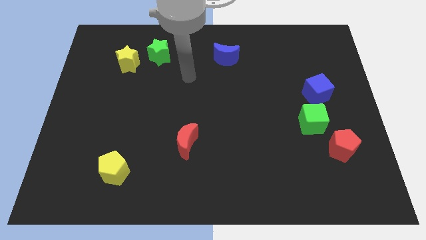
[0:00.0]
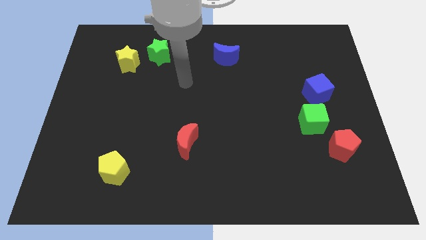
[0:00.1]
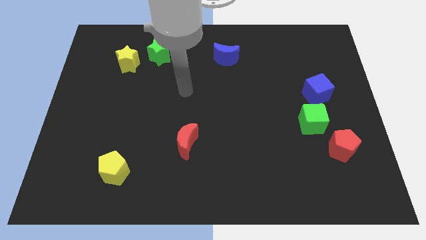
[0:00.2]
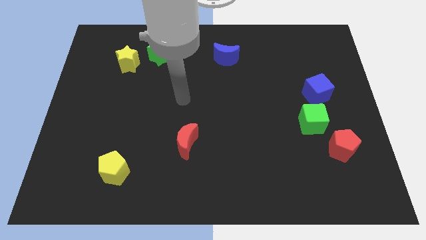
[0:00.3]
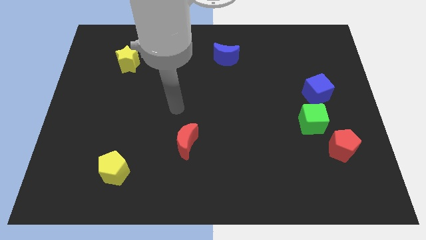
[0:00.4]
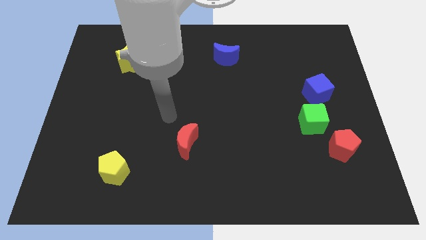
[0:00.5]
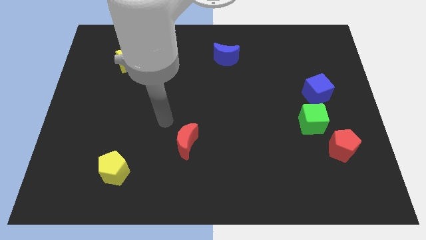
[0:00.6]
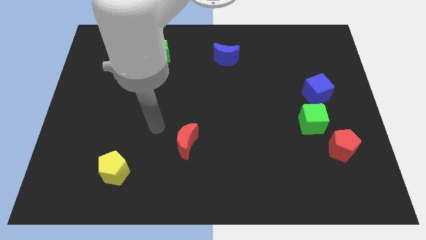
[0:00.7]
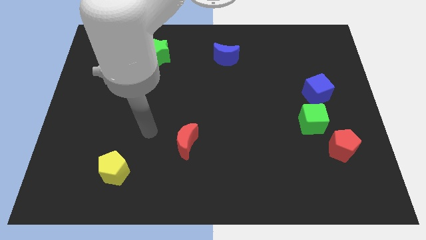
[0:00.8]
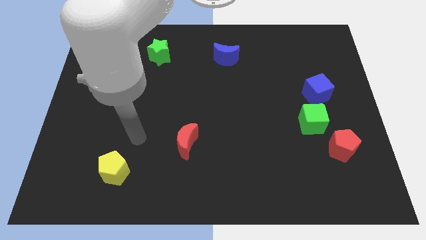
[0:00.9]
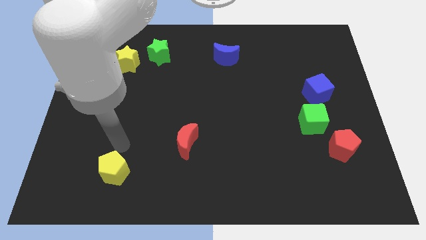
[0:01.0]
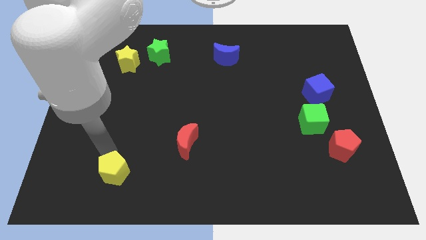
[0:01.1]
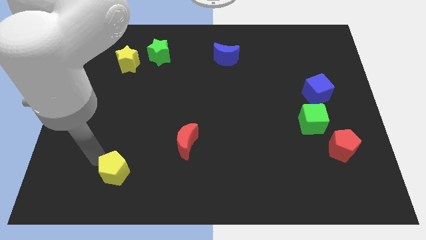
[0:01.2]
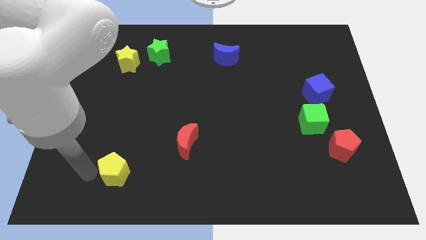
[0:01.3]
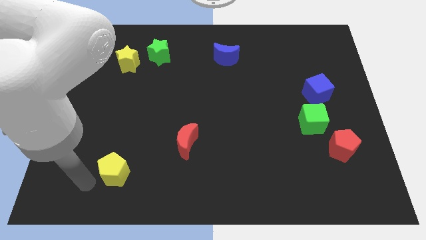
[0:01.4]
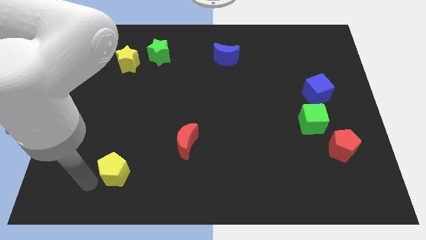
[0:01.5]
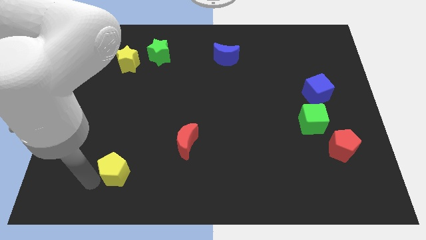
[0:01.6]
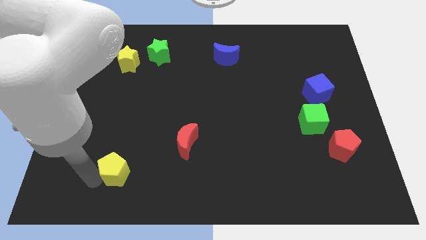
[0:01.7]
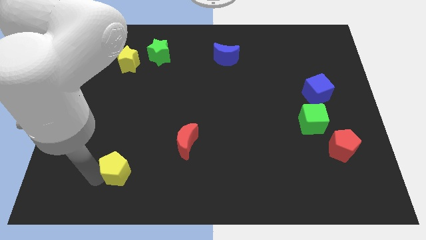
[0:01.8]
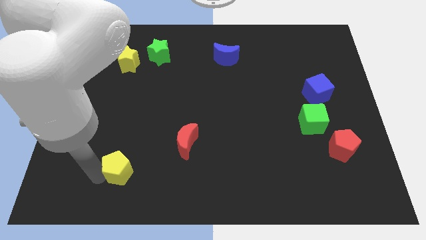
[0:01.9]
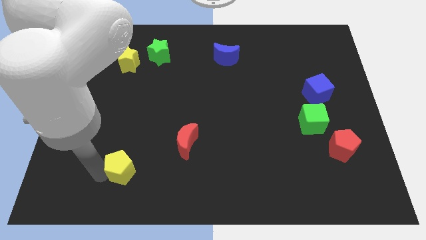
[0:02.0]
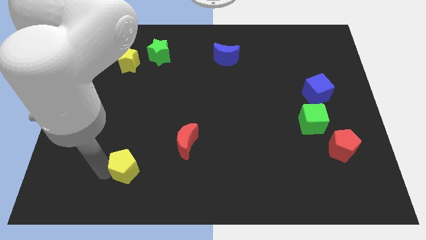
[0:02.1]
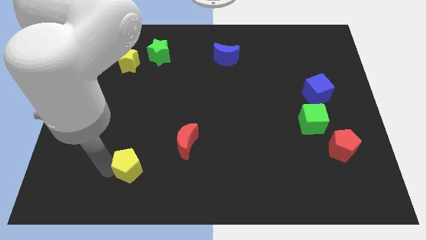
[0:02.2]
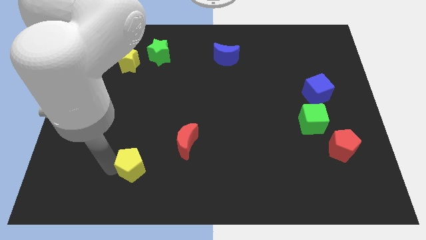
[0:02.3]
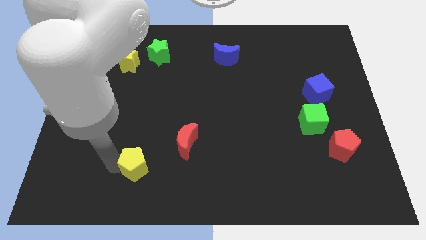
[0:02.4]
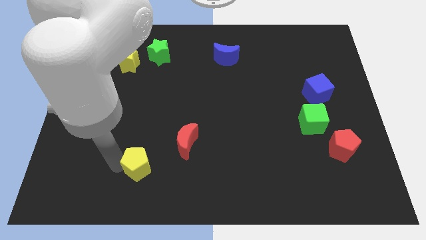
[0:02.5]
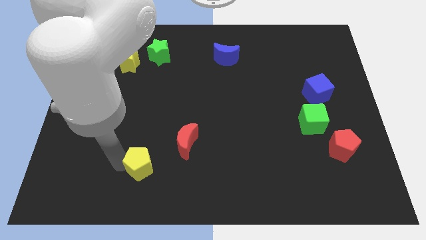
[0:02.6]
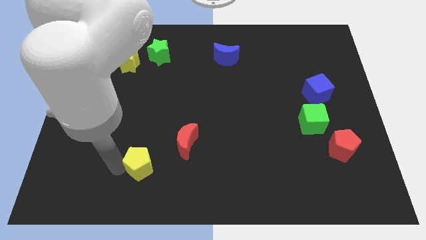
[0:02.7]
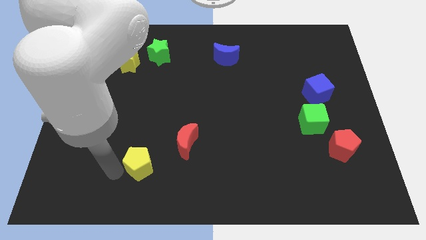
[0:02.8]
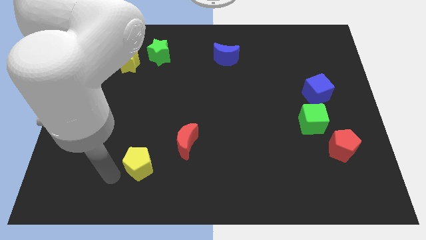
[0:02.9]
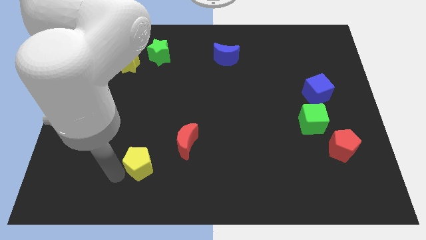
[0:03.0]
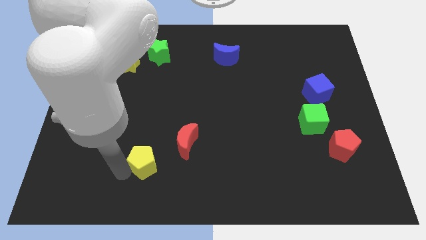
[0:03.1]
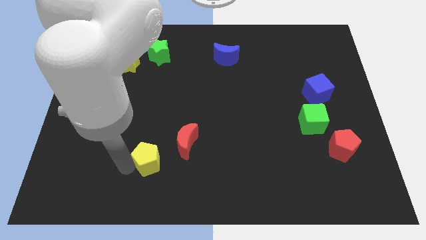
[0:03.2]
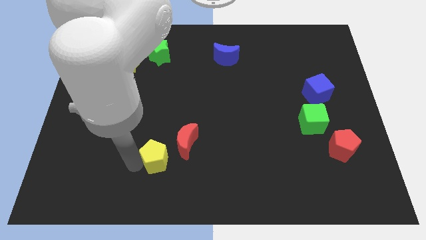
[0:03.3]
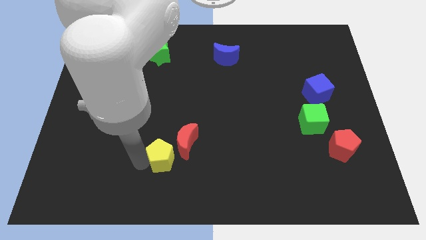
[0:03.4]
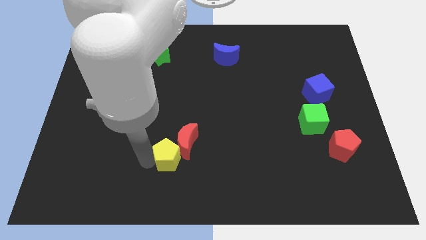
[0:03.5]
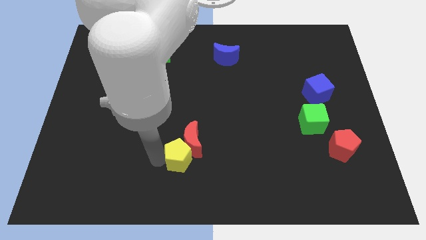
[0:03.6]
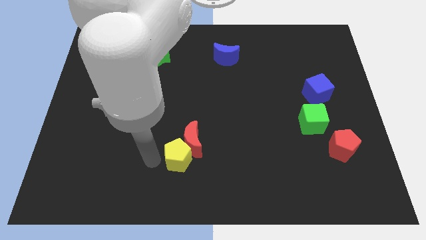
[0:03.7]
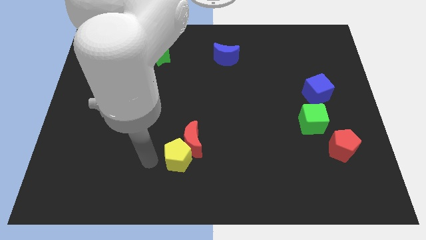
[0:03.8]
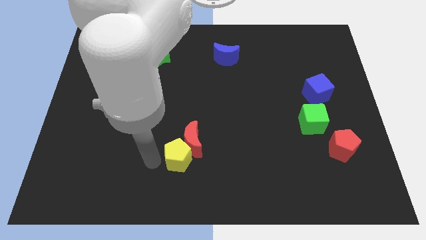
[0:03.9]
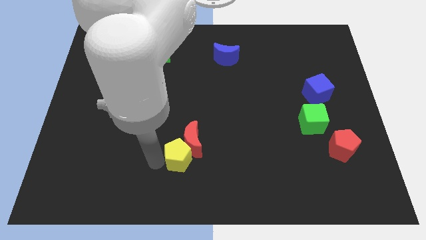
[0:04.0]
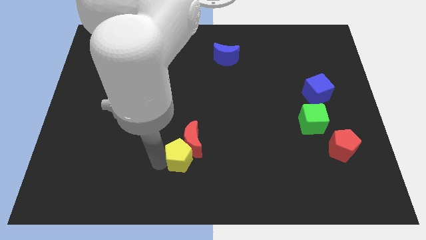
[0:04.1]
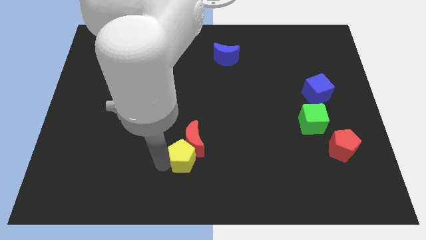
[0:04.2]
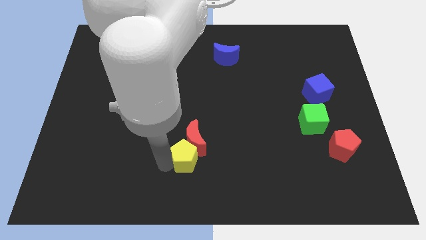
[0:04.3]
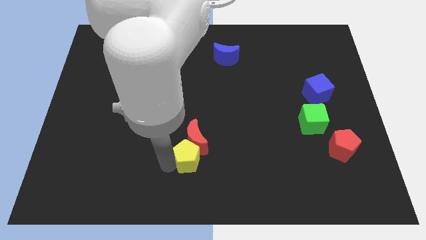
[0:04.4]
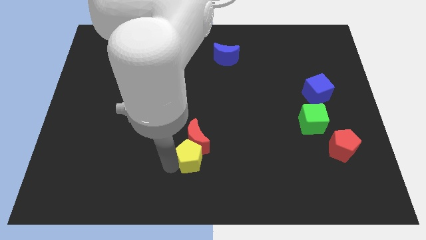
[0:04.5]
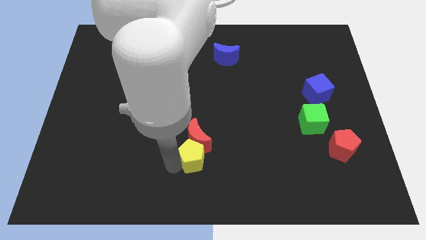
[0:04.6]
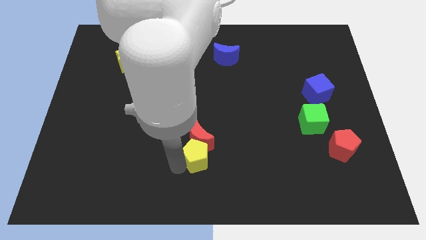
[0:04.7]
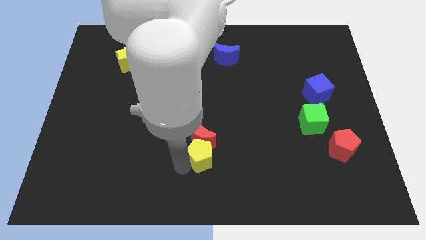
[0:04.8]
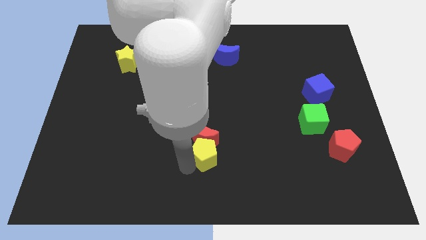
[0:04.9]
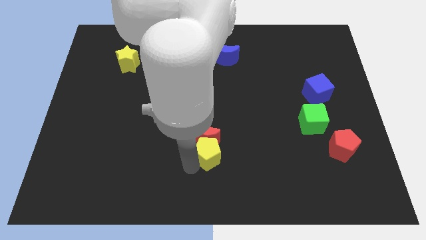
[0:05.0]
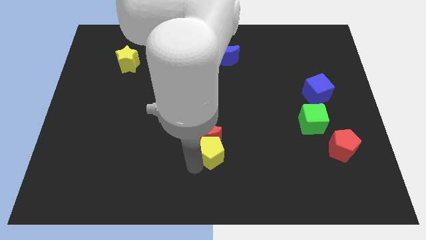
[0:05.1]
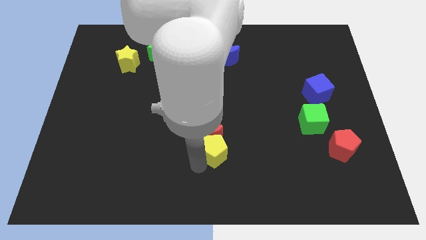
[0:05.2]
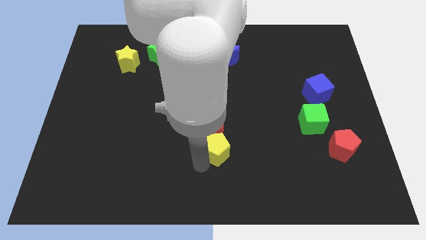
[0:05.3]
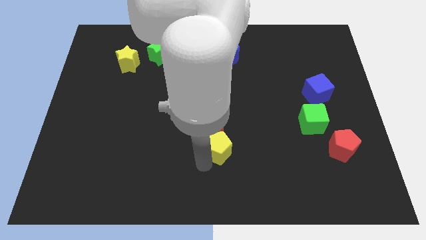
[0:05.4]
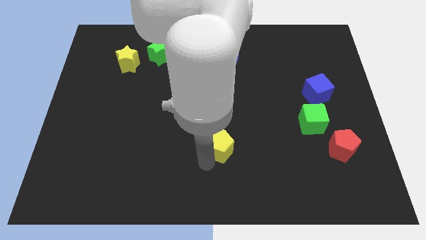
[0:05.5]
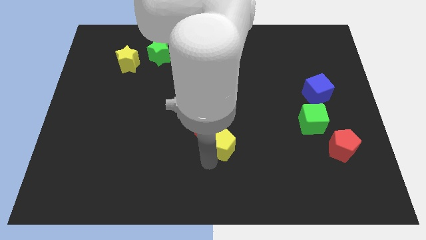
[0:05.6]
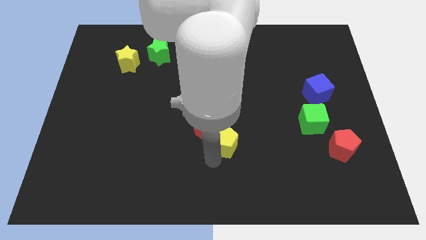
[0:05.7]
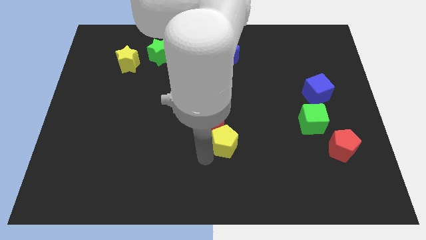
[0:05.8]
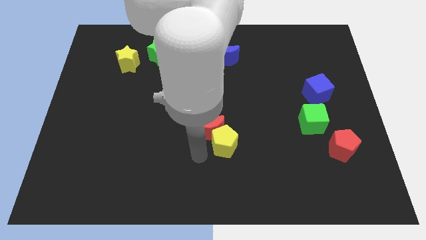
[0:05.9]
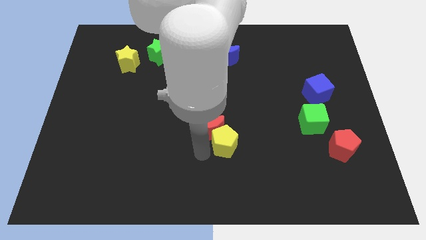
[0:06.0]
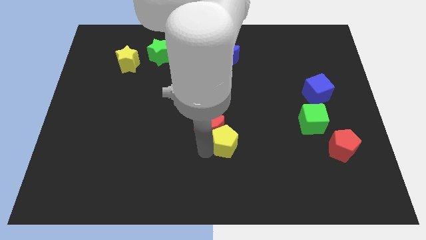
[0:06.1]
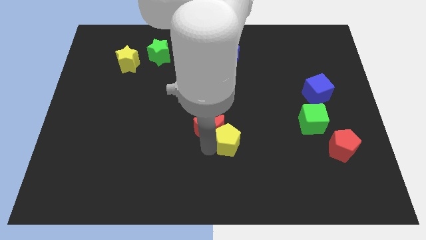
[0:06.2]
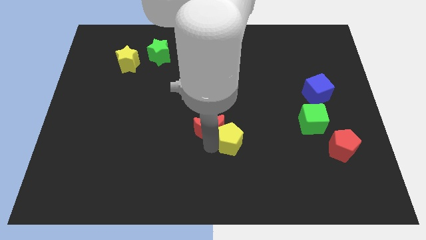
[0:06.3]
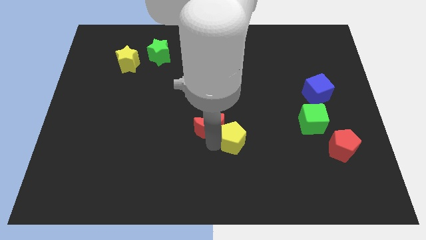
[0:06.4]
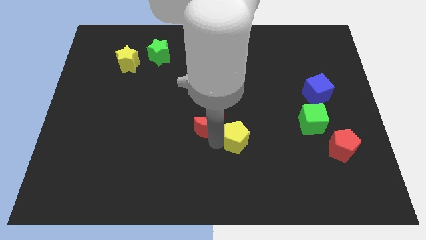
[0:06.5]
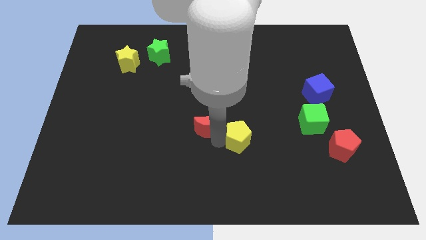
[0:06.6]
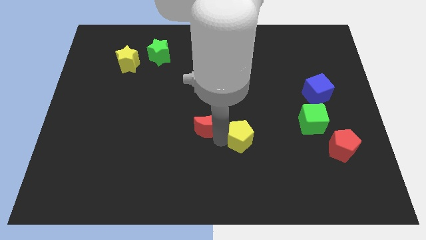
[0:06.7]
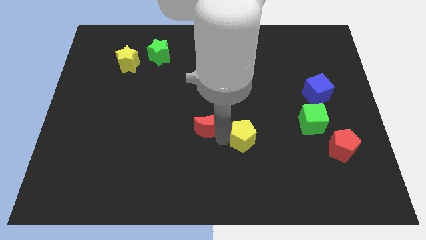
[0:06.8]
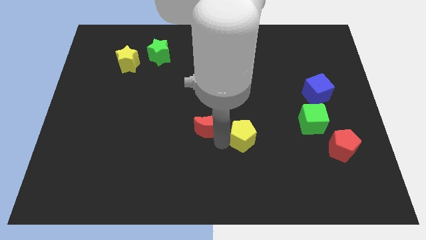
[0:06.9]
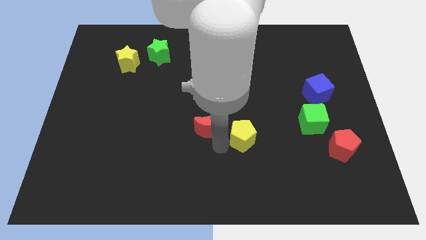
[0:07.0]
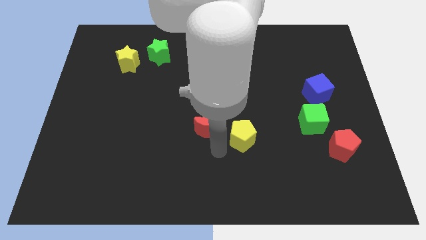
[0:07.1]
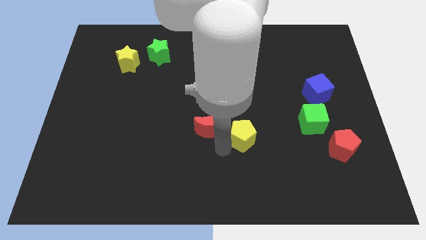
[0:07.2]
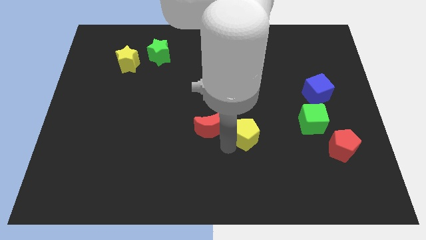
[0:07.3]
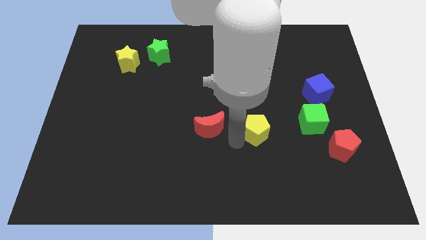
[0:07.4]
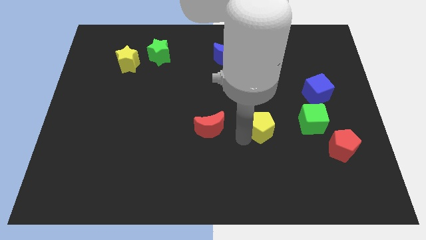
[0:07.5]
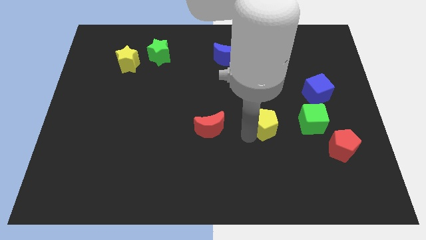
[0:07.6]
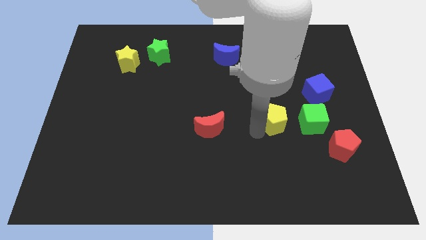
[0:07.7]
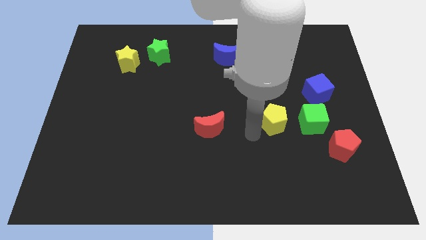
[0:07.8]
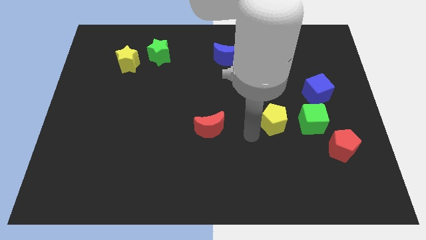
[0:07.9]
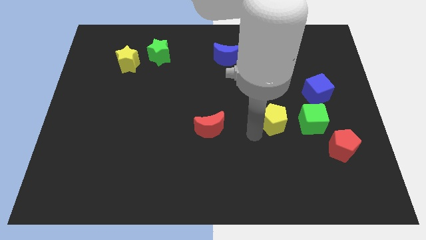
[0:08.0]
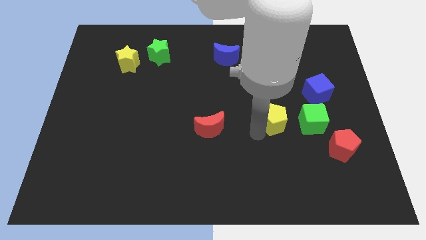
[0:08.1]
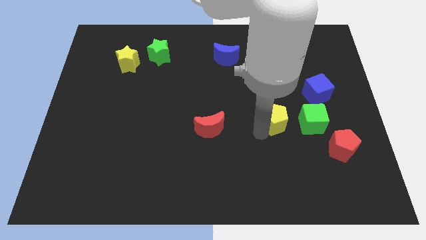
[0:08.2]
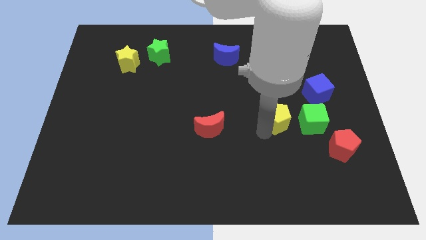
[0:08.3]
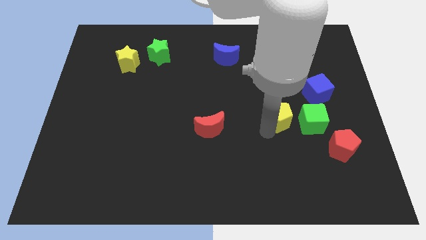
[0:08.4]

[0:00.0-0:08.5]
slide the yellow pentagon to the bottom left side of the blue cube
